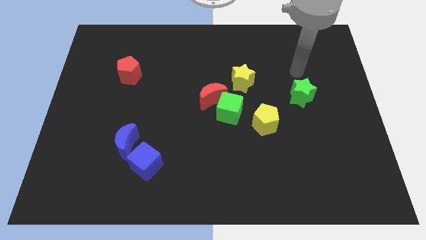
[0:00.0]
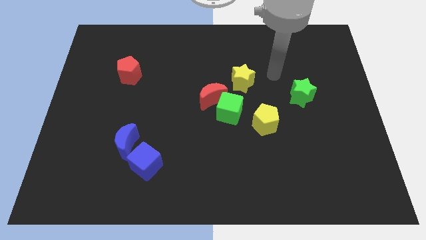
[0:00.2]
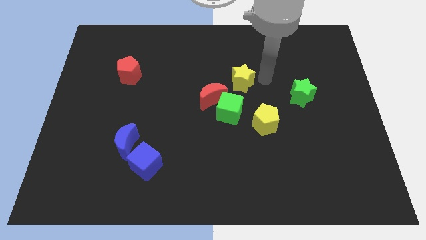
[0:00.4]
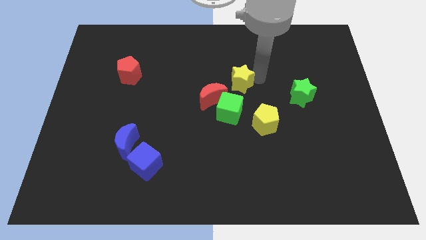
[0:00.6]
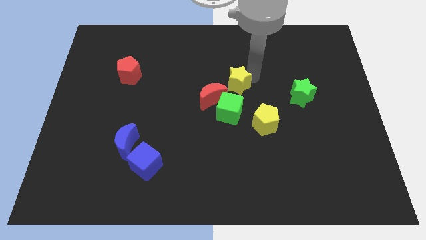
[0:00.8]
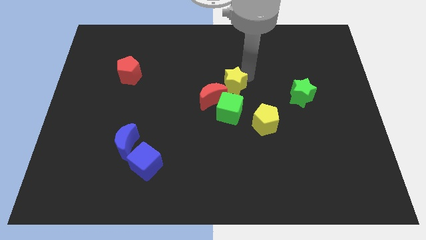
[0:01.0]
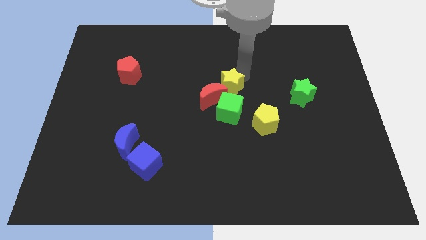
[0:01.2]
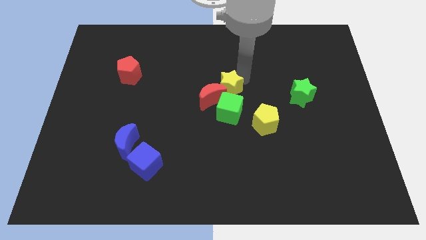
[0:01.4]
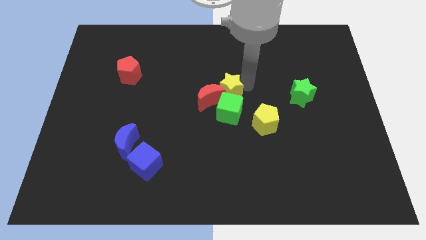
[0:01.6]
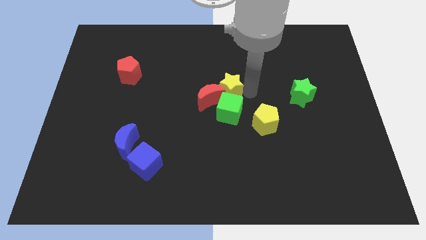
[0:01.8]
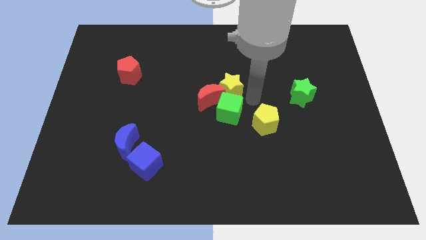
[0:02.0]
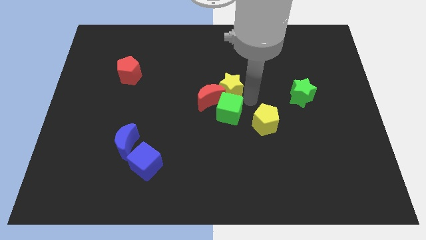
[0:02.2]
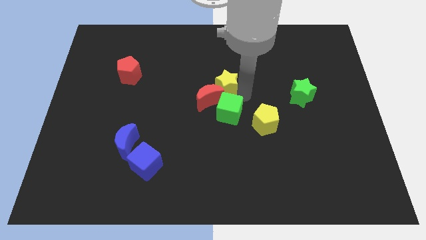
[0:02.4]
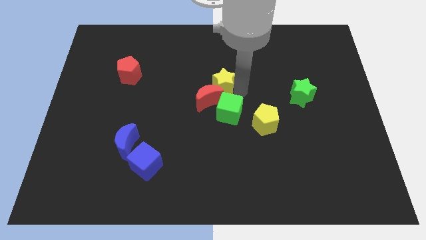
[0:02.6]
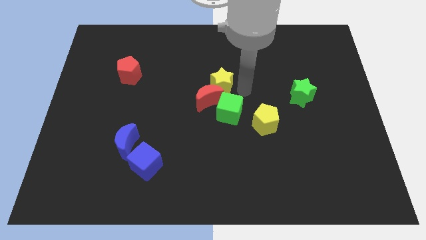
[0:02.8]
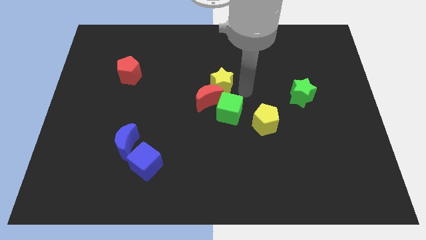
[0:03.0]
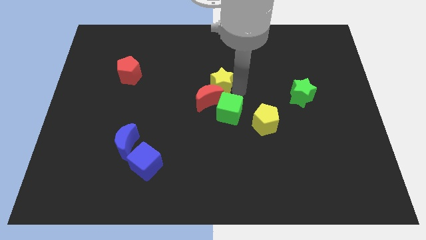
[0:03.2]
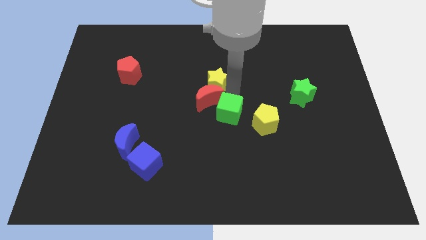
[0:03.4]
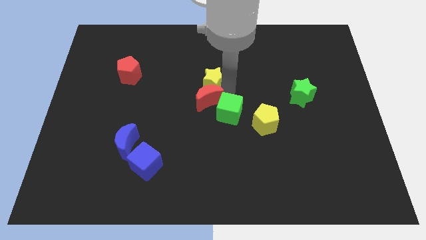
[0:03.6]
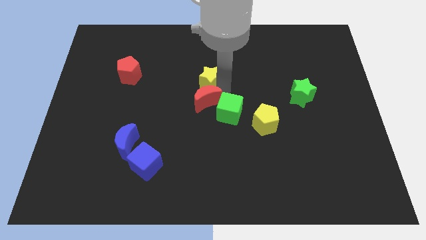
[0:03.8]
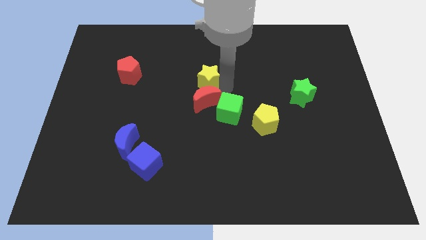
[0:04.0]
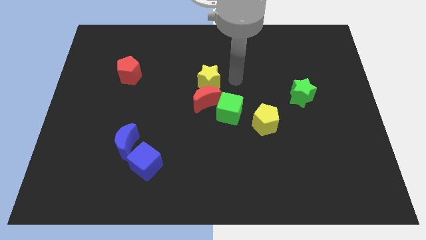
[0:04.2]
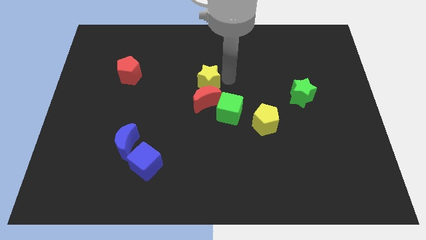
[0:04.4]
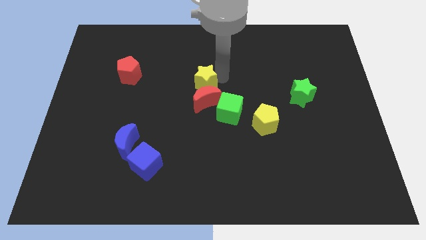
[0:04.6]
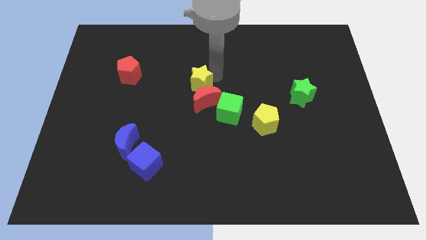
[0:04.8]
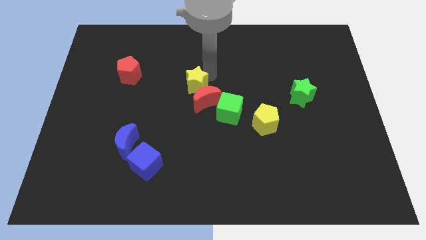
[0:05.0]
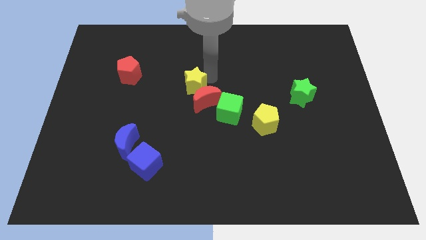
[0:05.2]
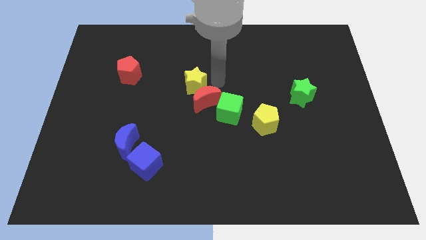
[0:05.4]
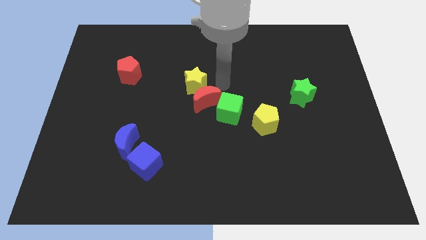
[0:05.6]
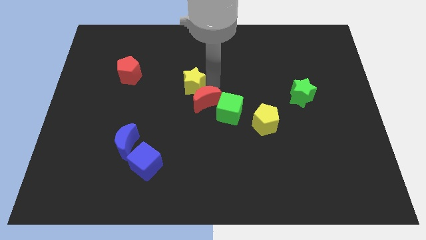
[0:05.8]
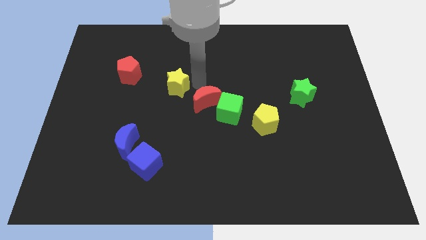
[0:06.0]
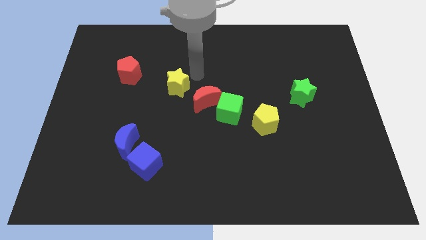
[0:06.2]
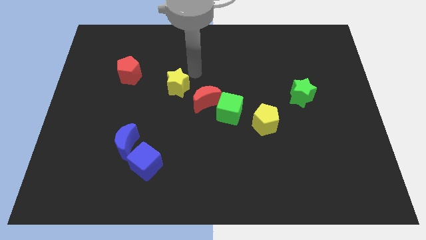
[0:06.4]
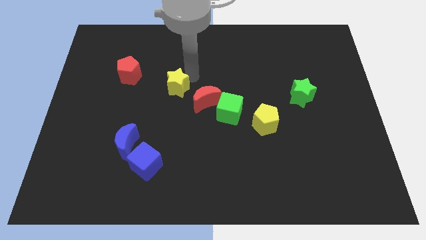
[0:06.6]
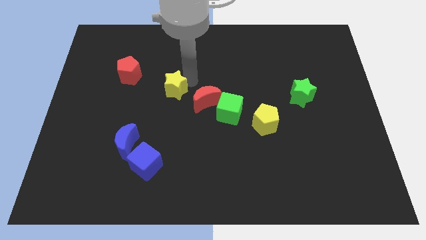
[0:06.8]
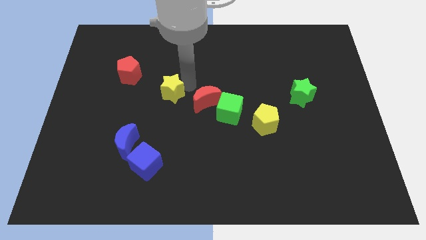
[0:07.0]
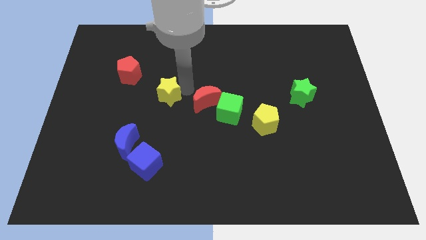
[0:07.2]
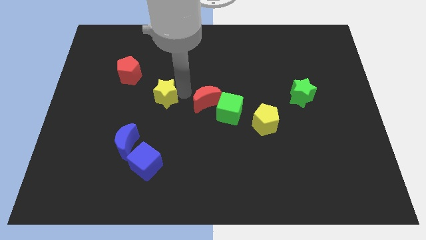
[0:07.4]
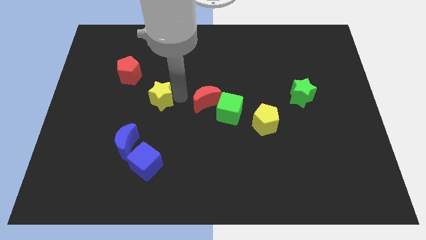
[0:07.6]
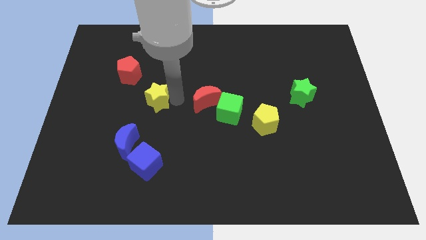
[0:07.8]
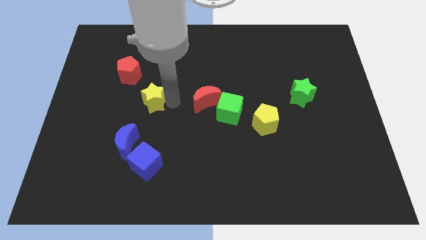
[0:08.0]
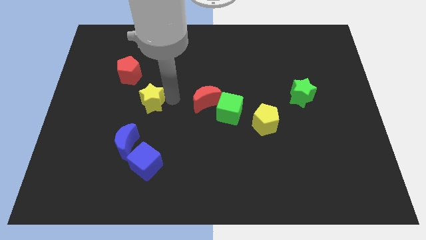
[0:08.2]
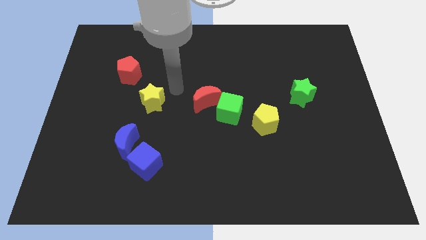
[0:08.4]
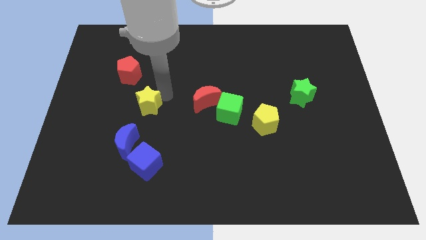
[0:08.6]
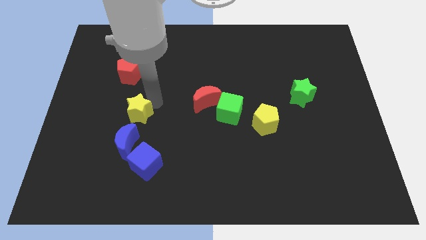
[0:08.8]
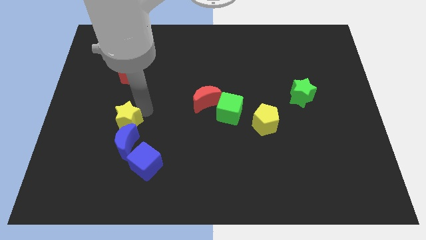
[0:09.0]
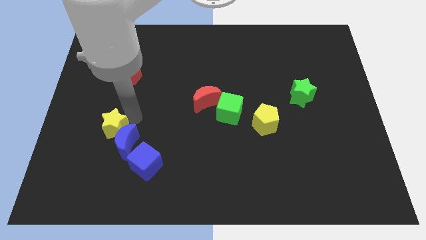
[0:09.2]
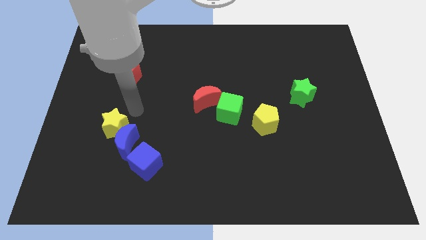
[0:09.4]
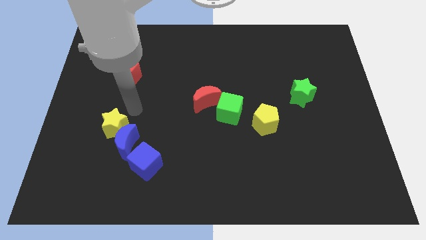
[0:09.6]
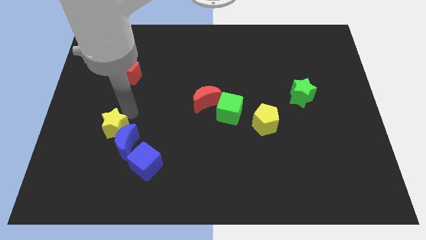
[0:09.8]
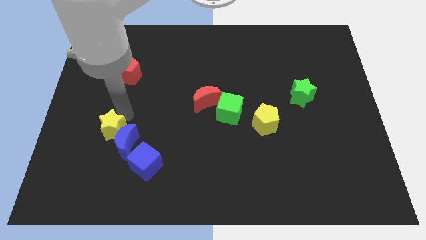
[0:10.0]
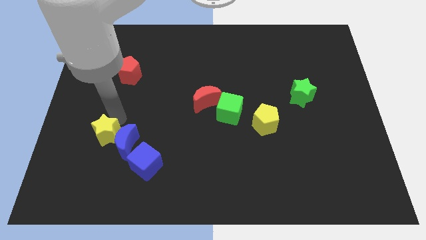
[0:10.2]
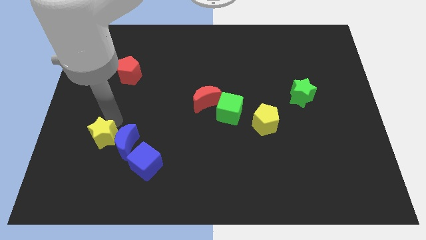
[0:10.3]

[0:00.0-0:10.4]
put the yellow star to the bottom left side of the blue moon

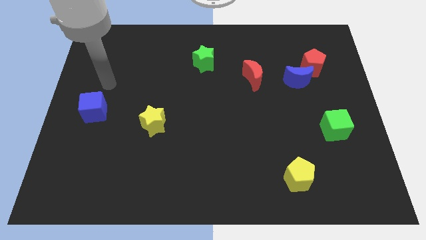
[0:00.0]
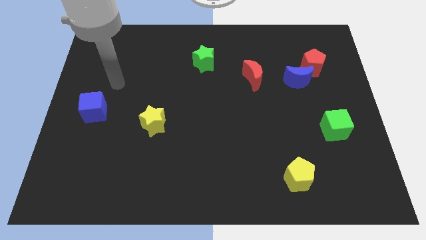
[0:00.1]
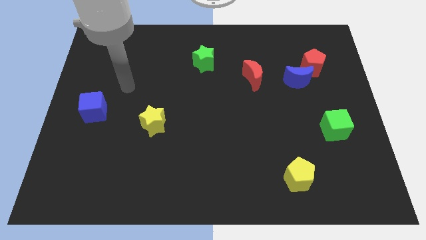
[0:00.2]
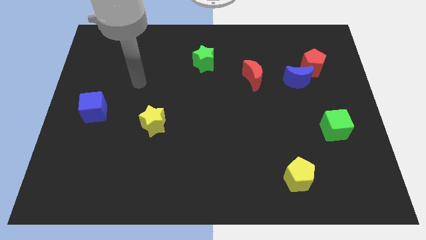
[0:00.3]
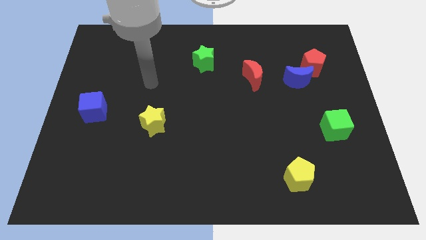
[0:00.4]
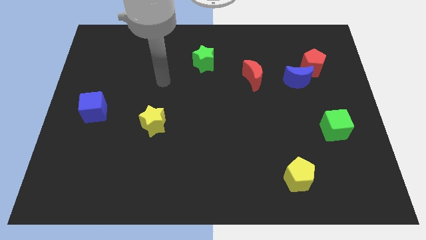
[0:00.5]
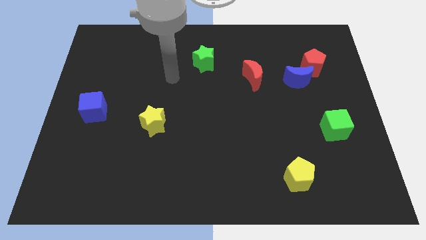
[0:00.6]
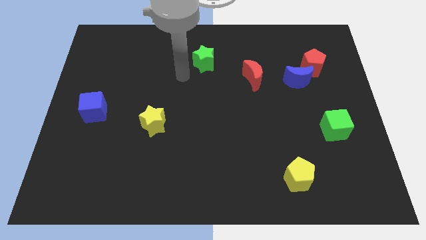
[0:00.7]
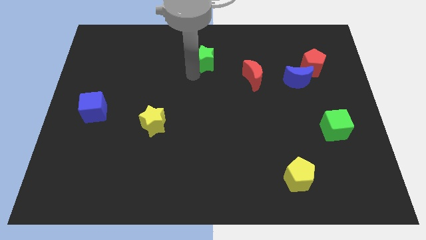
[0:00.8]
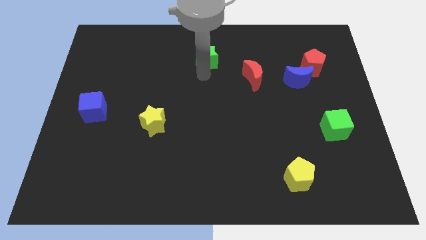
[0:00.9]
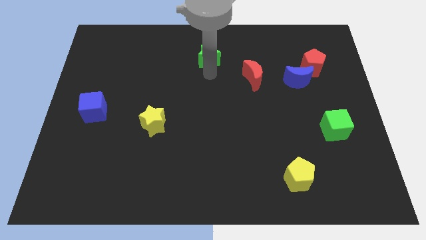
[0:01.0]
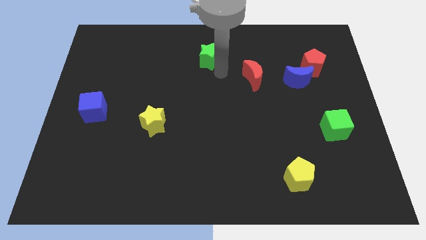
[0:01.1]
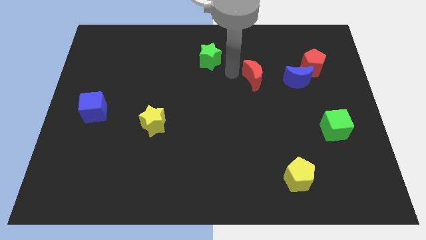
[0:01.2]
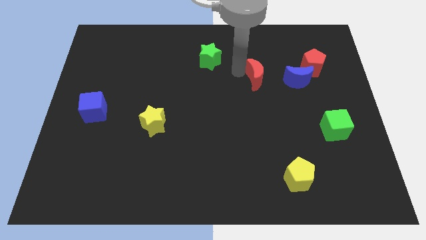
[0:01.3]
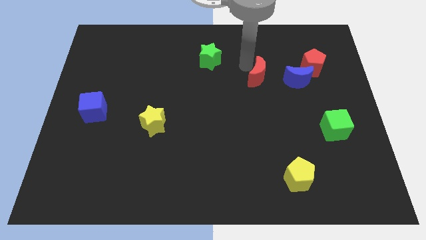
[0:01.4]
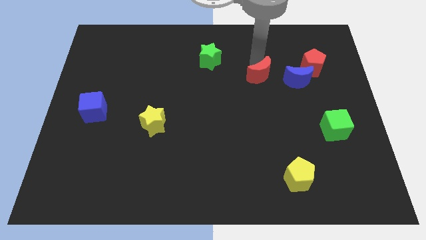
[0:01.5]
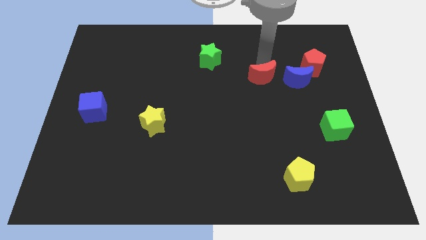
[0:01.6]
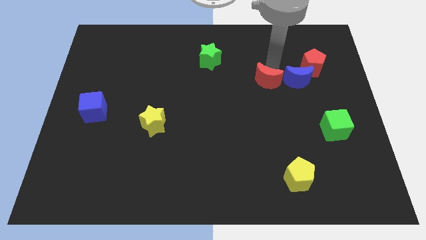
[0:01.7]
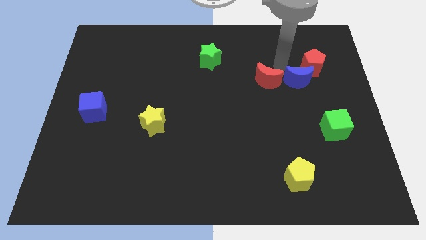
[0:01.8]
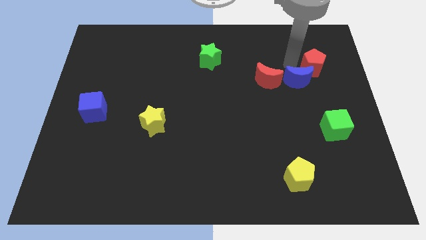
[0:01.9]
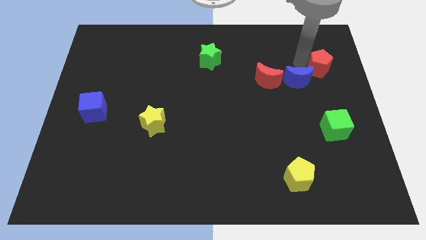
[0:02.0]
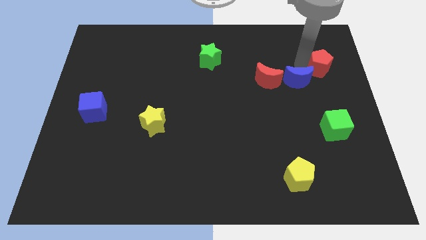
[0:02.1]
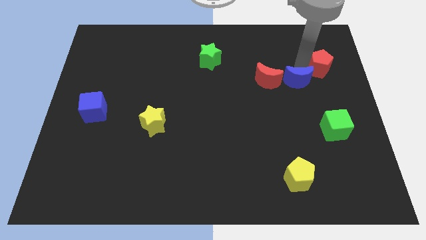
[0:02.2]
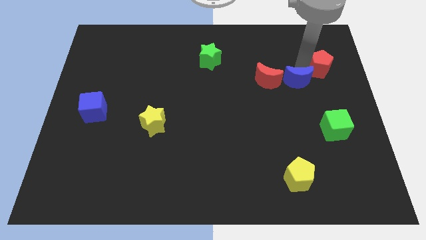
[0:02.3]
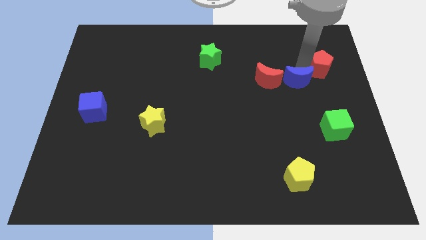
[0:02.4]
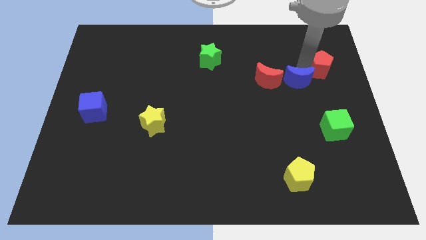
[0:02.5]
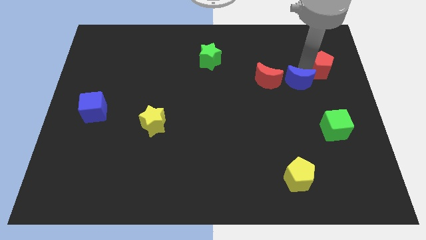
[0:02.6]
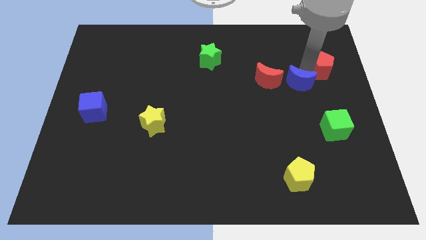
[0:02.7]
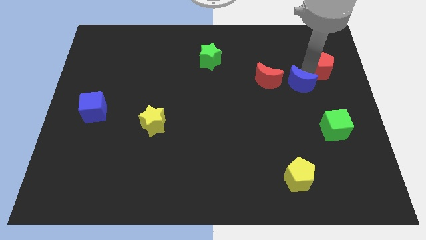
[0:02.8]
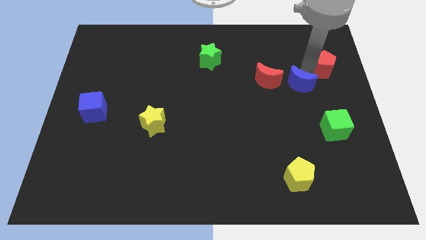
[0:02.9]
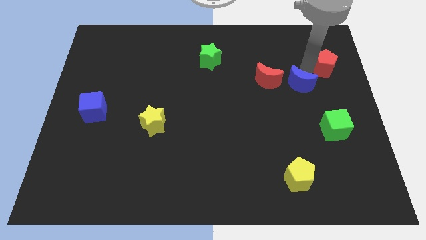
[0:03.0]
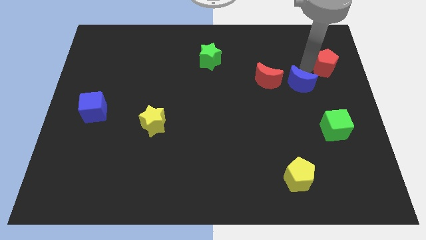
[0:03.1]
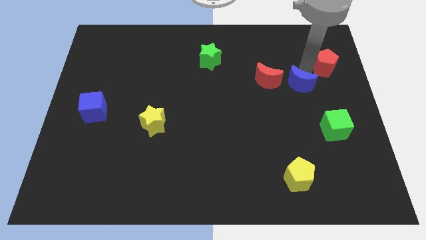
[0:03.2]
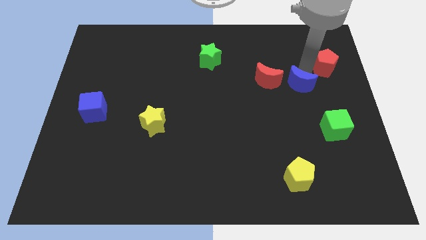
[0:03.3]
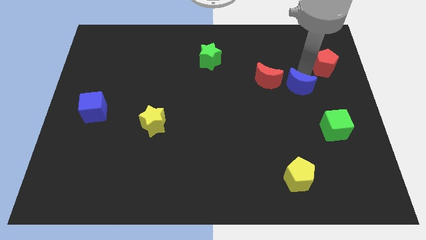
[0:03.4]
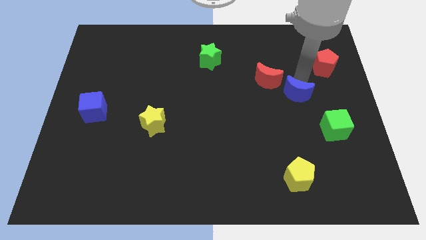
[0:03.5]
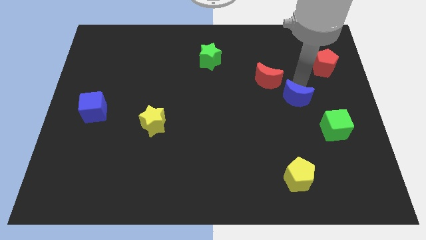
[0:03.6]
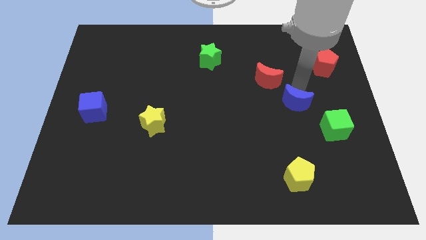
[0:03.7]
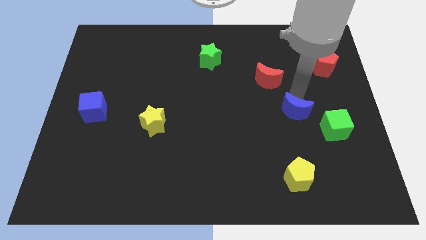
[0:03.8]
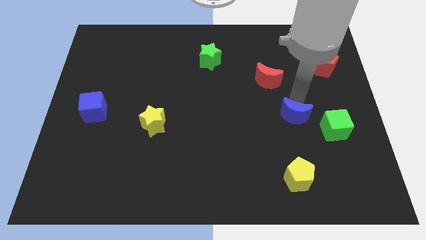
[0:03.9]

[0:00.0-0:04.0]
move the blue moon to the top of the yellow pentagon
